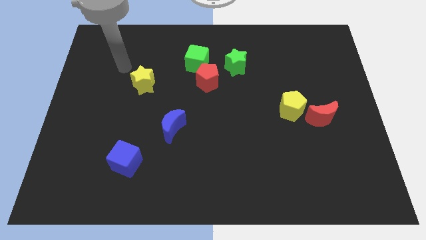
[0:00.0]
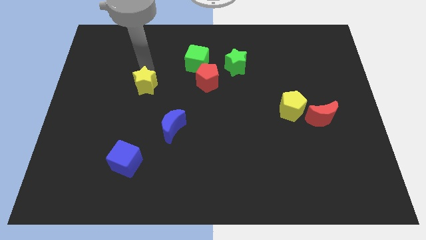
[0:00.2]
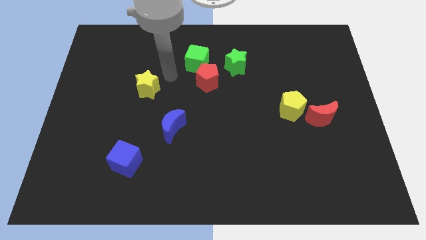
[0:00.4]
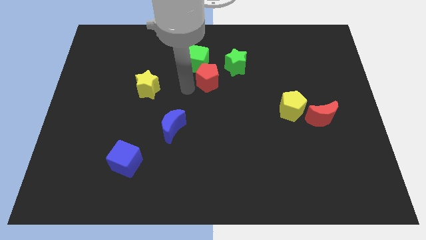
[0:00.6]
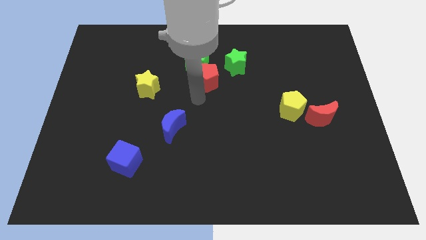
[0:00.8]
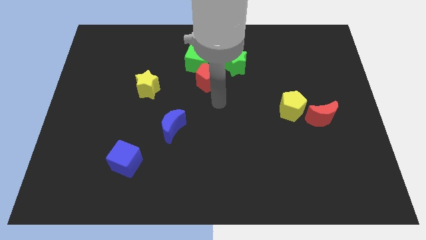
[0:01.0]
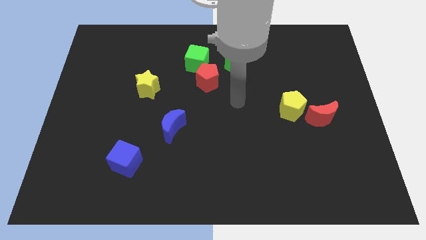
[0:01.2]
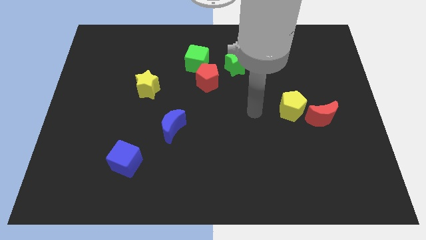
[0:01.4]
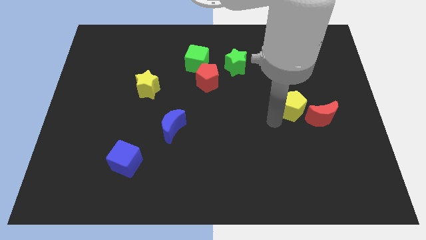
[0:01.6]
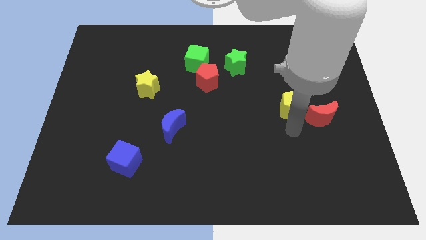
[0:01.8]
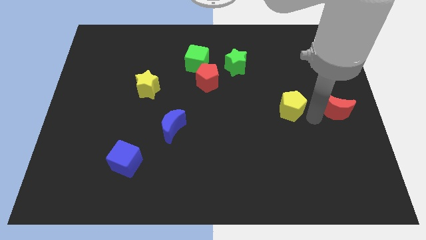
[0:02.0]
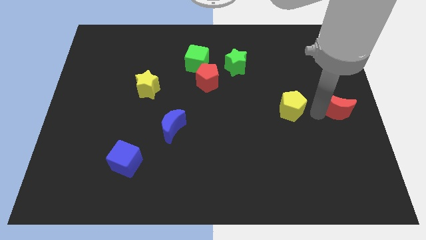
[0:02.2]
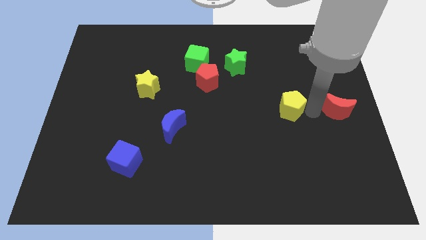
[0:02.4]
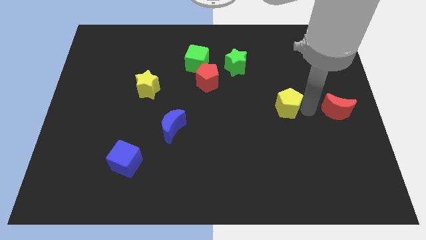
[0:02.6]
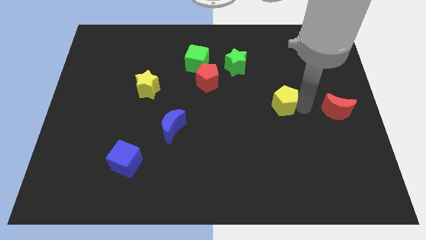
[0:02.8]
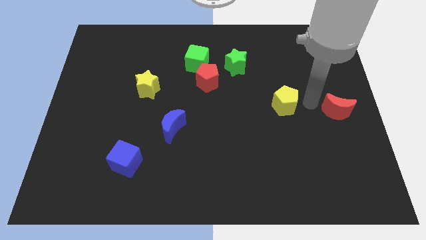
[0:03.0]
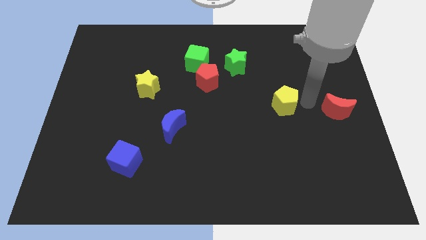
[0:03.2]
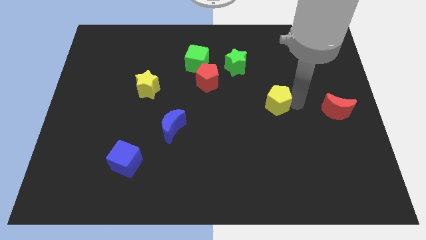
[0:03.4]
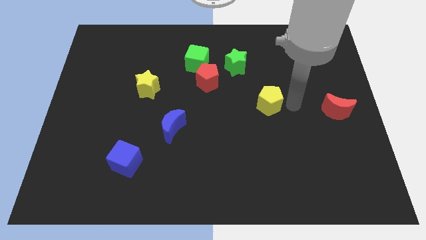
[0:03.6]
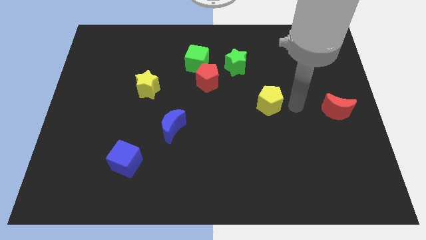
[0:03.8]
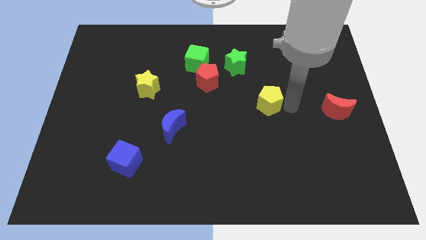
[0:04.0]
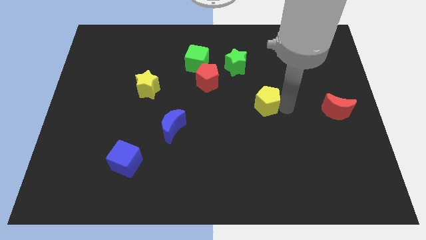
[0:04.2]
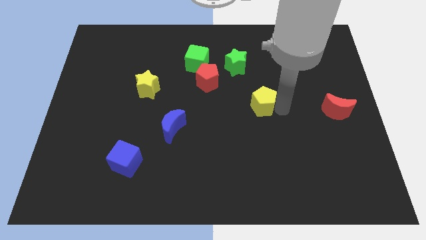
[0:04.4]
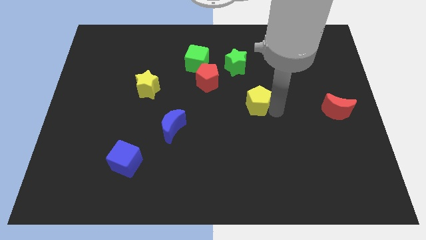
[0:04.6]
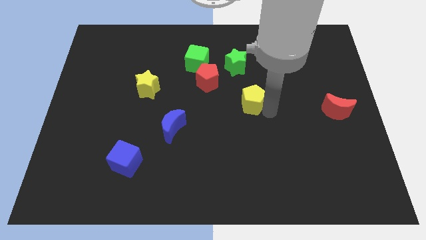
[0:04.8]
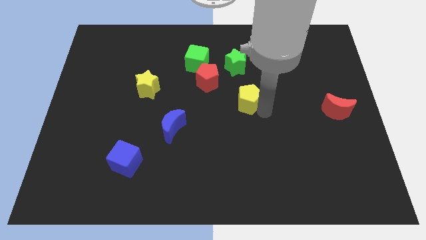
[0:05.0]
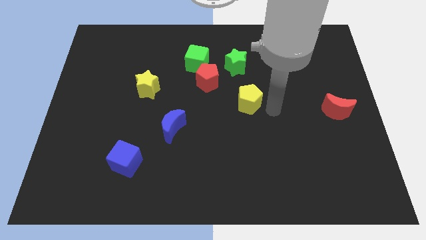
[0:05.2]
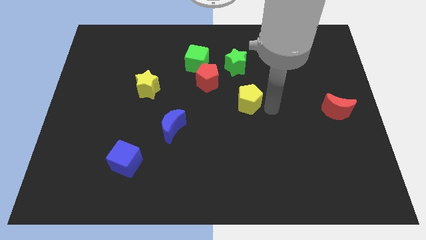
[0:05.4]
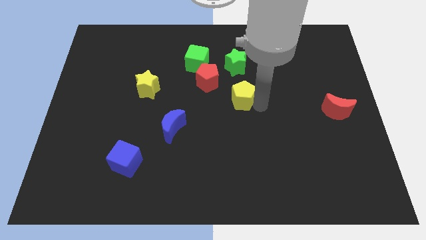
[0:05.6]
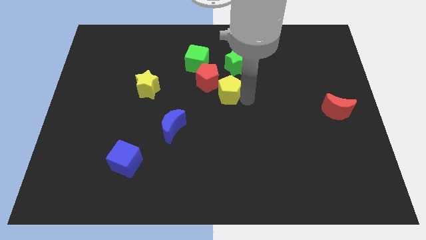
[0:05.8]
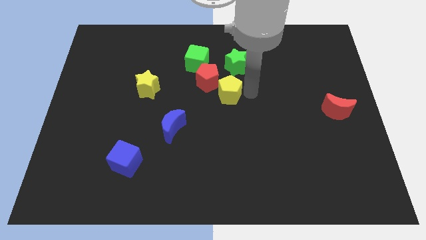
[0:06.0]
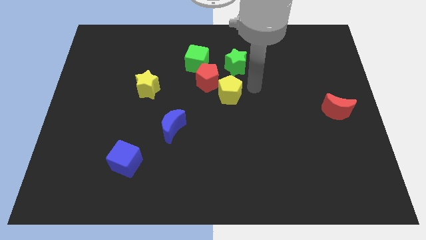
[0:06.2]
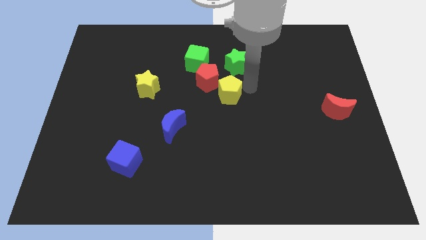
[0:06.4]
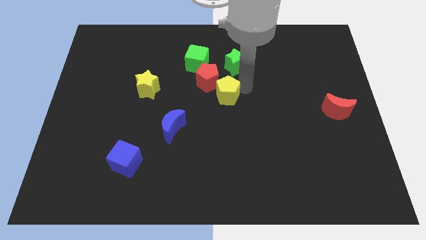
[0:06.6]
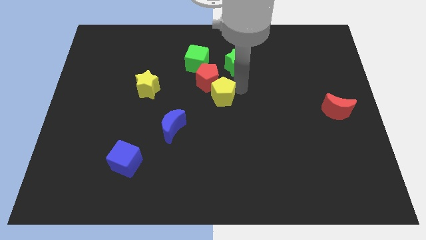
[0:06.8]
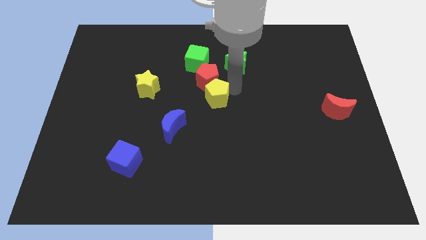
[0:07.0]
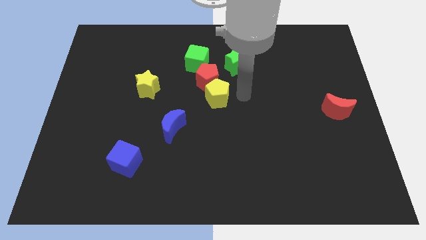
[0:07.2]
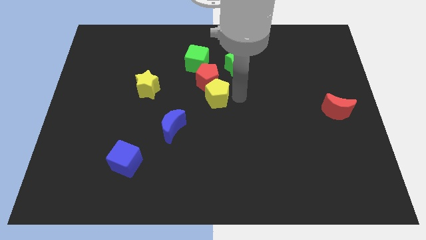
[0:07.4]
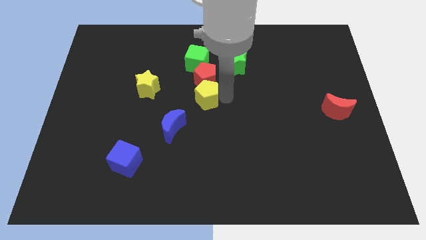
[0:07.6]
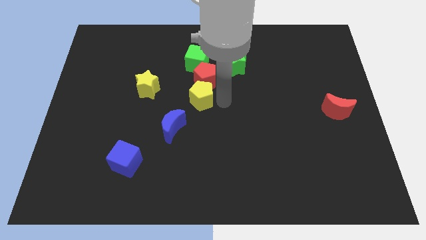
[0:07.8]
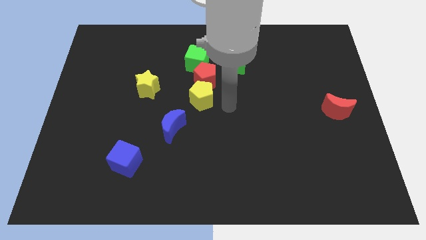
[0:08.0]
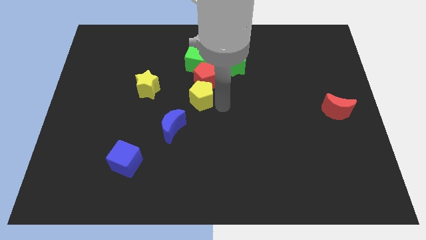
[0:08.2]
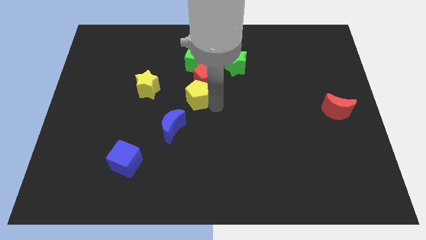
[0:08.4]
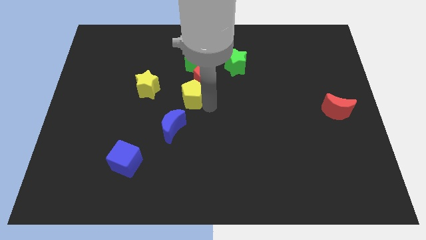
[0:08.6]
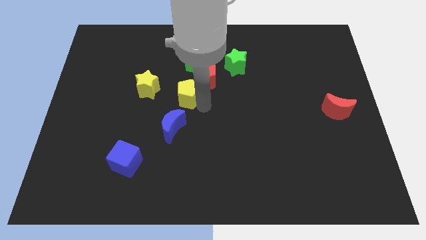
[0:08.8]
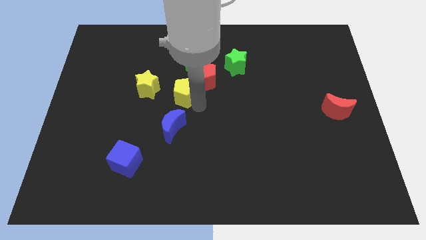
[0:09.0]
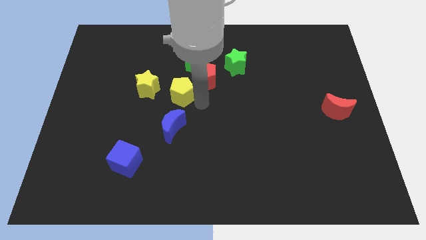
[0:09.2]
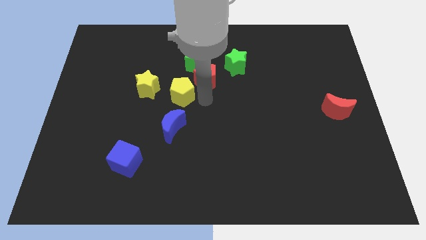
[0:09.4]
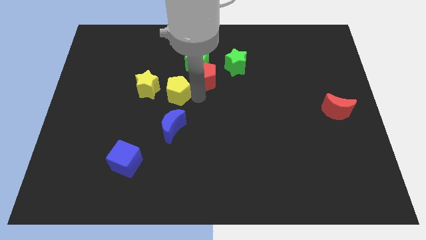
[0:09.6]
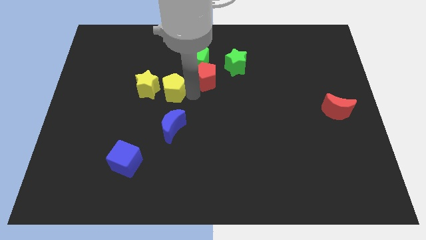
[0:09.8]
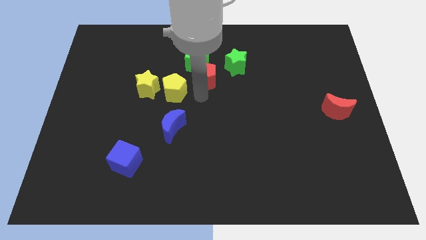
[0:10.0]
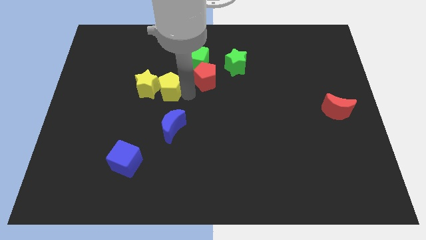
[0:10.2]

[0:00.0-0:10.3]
put the yellow pentagon to the yellow star

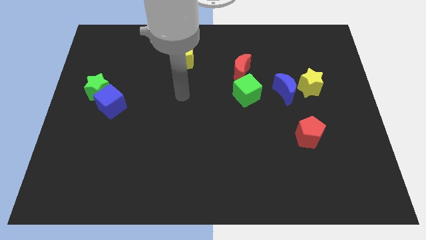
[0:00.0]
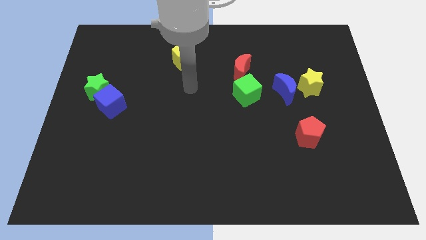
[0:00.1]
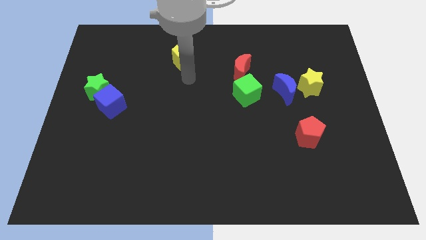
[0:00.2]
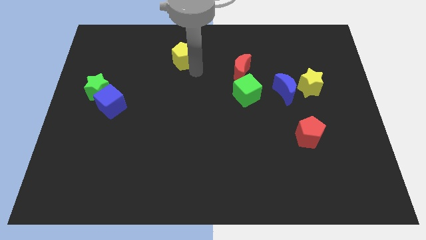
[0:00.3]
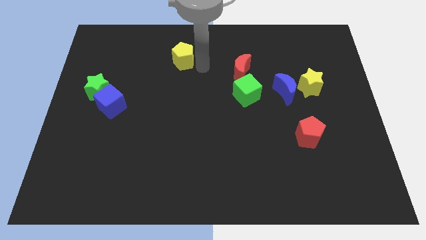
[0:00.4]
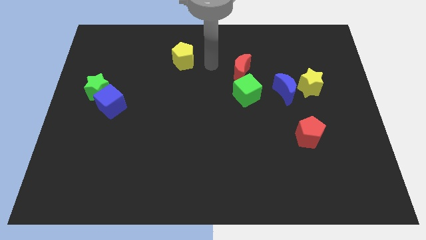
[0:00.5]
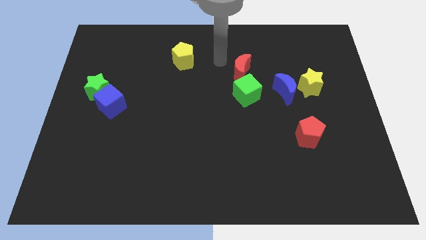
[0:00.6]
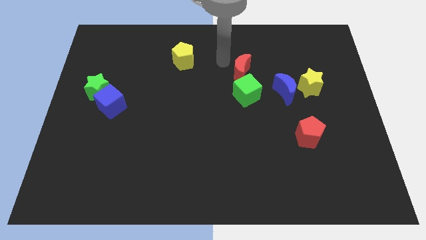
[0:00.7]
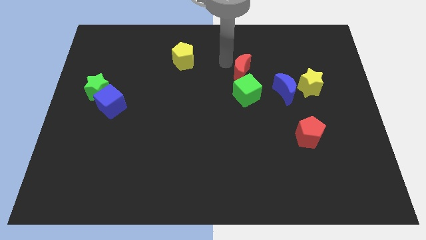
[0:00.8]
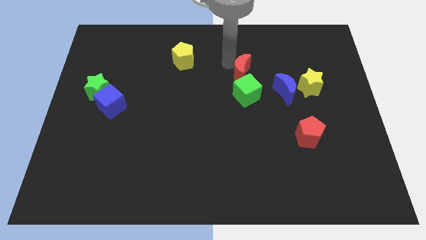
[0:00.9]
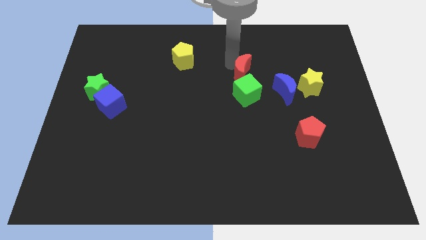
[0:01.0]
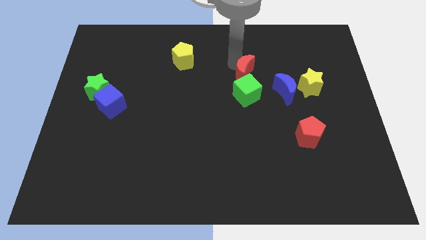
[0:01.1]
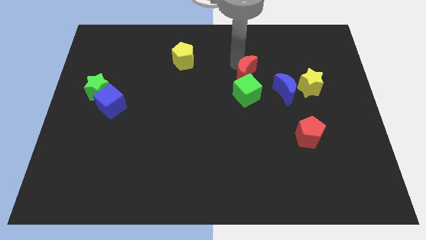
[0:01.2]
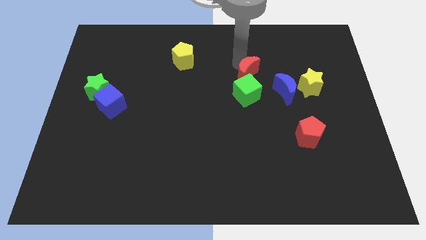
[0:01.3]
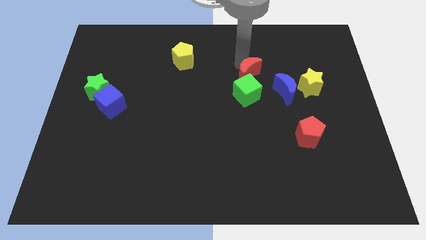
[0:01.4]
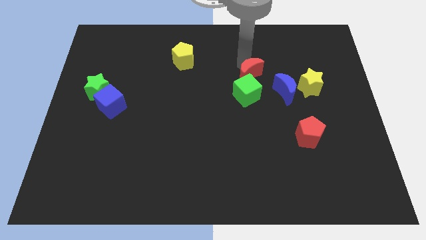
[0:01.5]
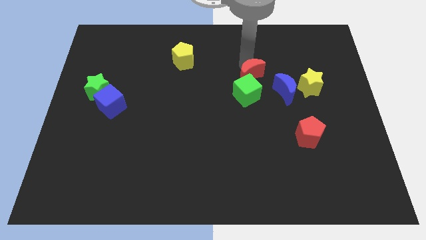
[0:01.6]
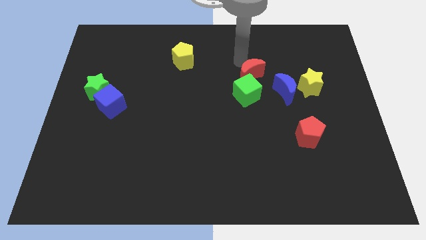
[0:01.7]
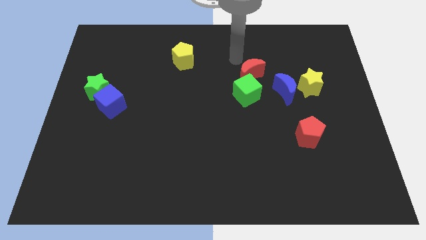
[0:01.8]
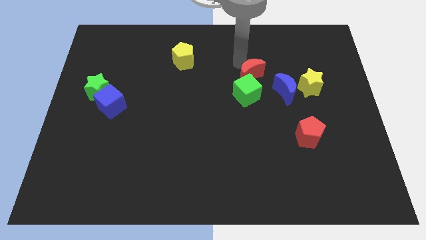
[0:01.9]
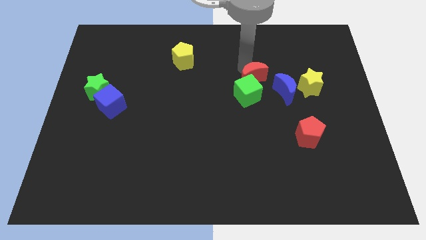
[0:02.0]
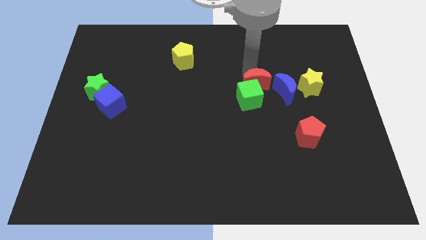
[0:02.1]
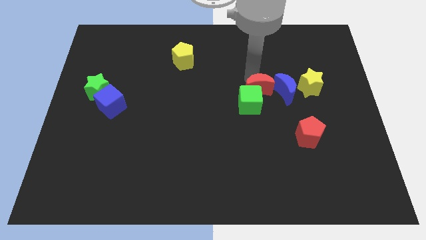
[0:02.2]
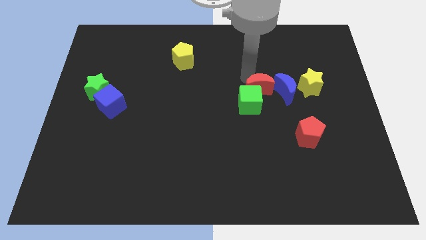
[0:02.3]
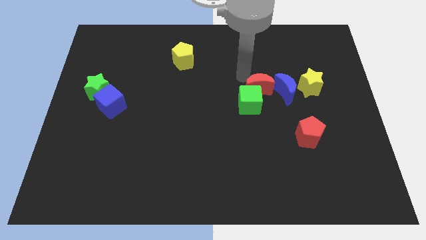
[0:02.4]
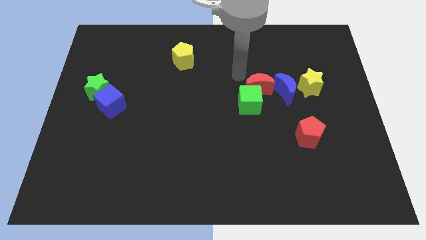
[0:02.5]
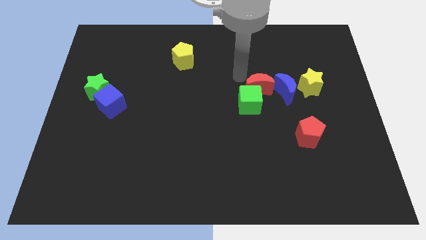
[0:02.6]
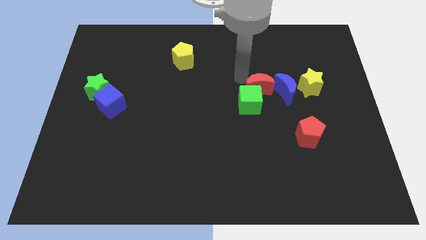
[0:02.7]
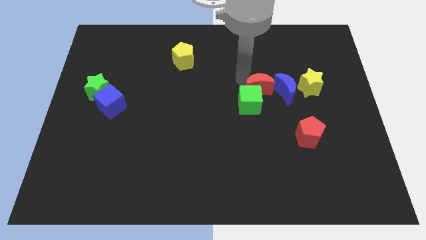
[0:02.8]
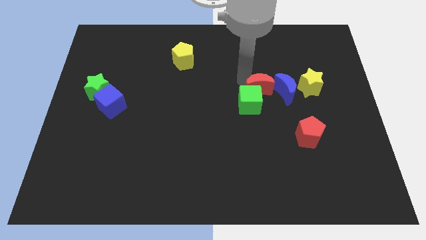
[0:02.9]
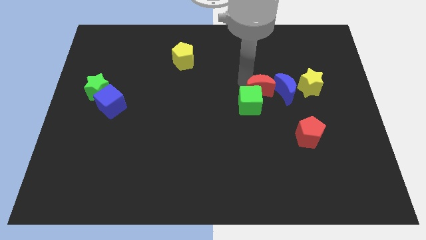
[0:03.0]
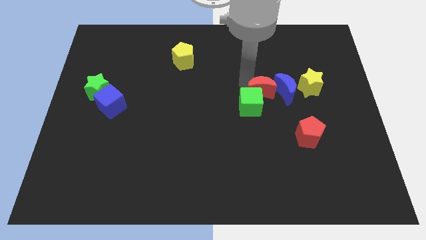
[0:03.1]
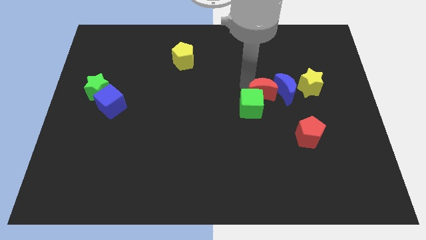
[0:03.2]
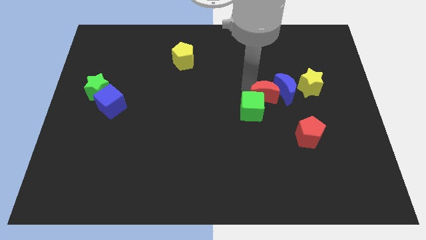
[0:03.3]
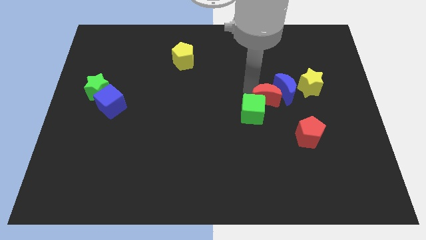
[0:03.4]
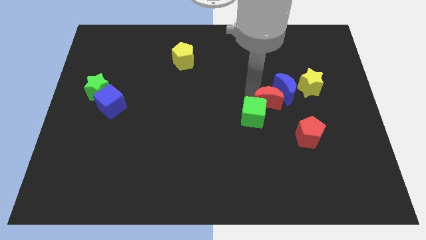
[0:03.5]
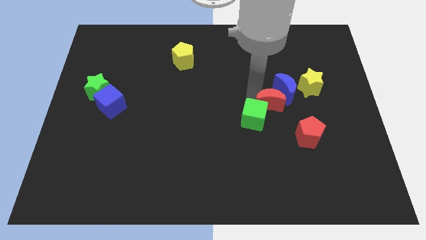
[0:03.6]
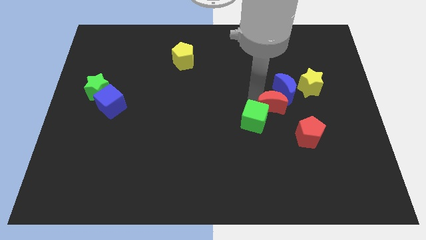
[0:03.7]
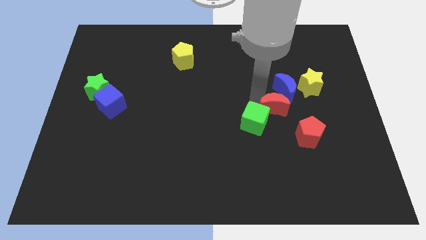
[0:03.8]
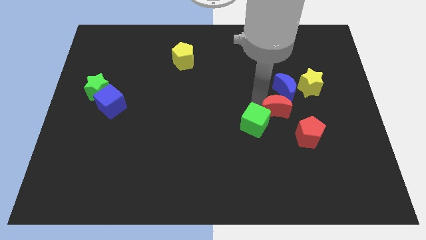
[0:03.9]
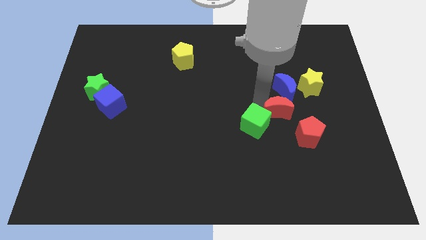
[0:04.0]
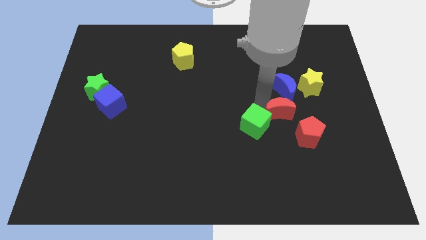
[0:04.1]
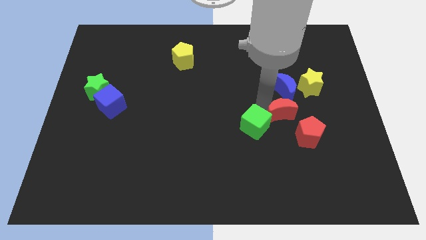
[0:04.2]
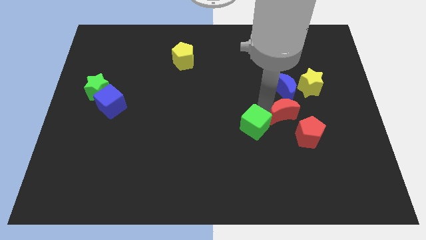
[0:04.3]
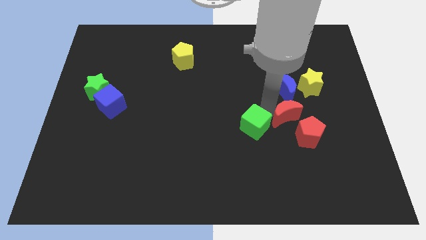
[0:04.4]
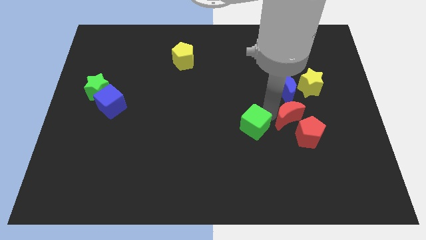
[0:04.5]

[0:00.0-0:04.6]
push the red moon close to the red pentagon
